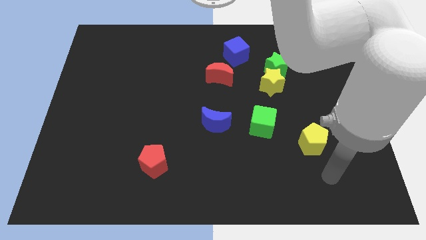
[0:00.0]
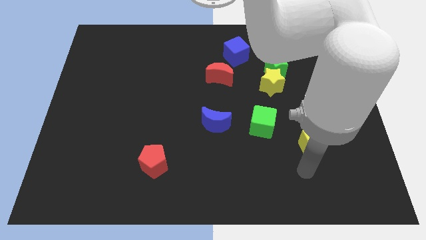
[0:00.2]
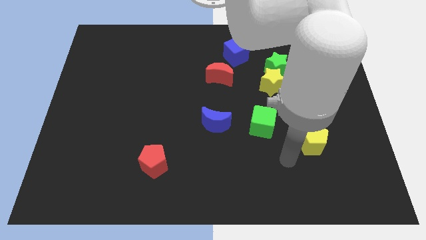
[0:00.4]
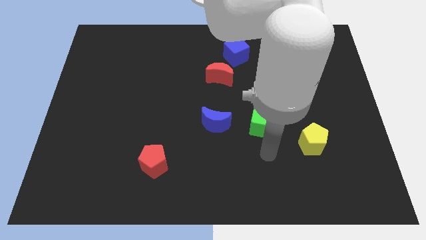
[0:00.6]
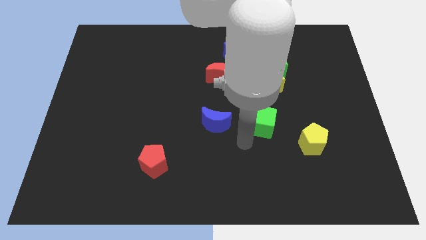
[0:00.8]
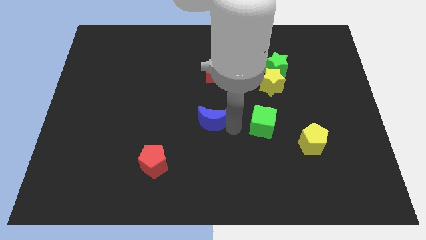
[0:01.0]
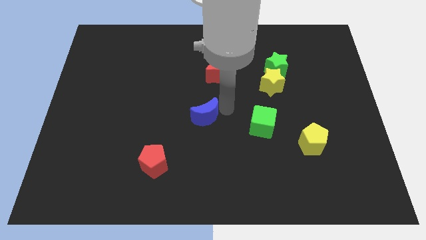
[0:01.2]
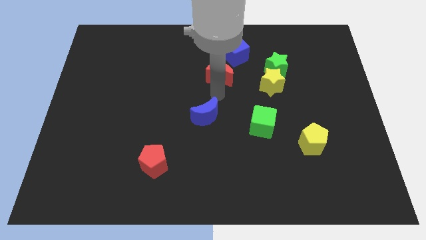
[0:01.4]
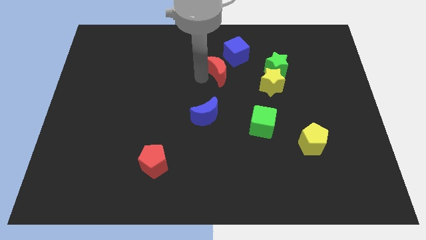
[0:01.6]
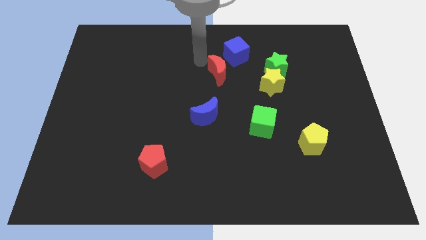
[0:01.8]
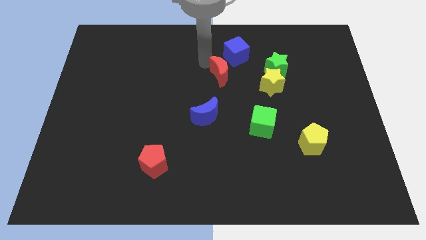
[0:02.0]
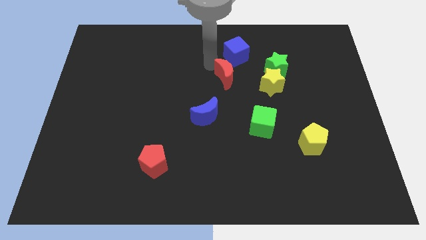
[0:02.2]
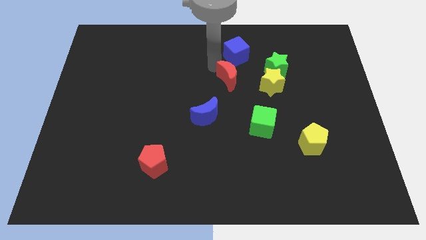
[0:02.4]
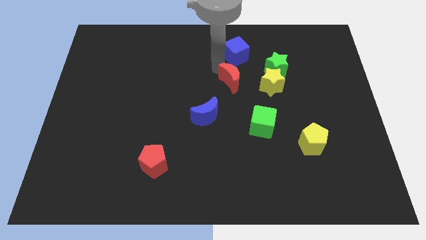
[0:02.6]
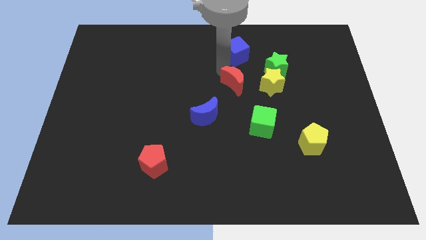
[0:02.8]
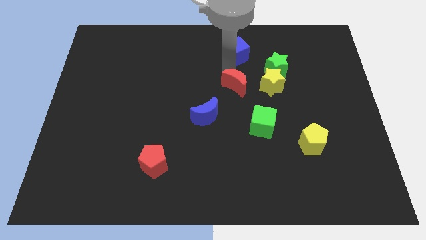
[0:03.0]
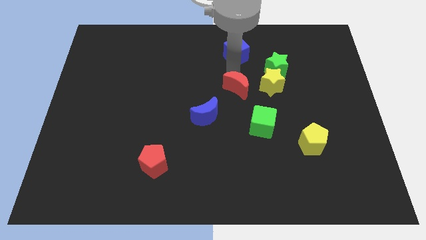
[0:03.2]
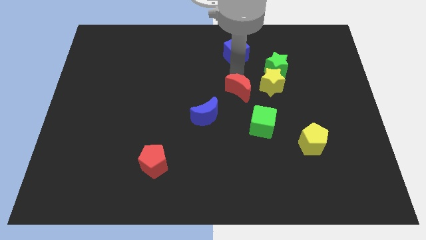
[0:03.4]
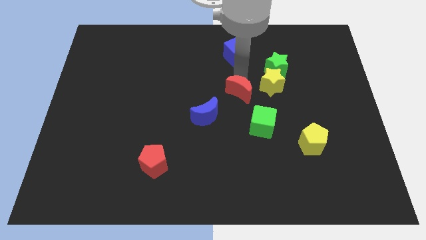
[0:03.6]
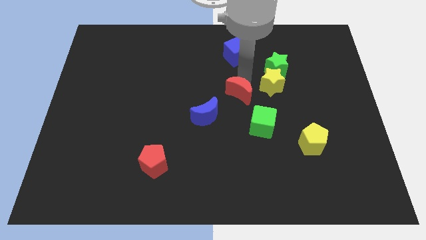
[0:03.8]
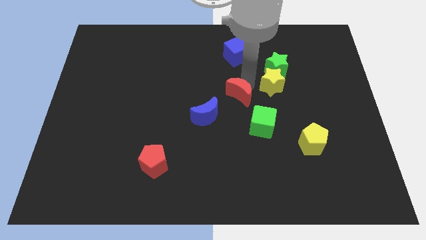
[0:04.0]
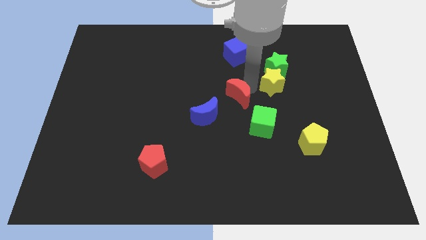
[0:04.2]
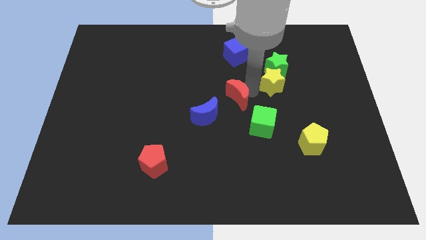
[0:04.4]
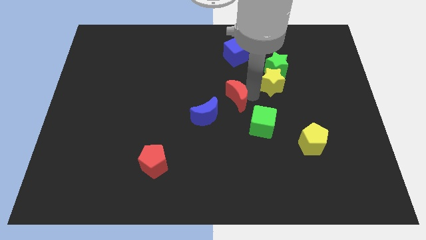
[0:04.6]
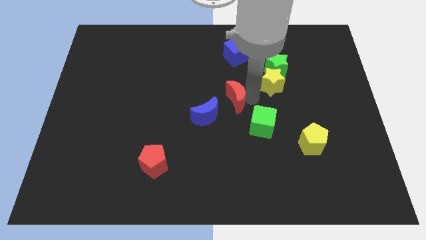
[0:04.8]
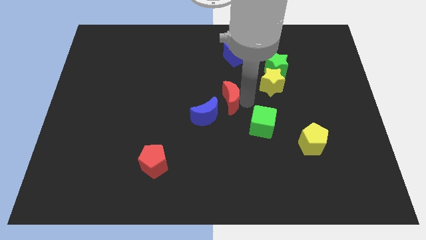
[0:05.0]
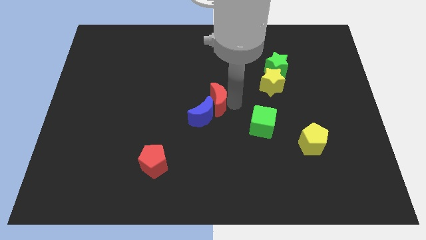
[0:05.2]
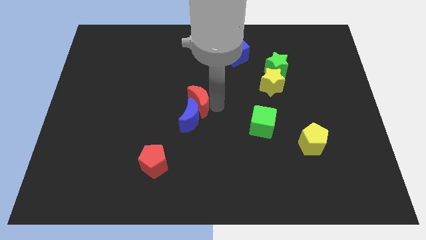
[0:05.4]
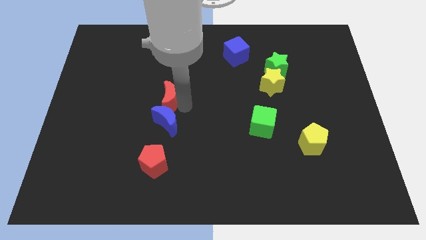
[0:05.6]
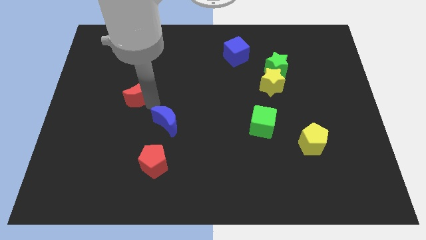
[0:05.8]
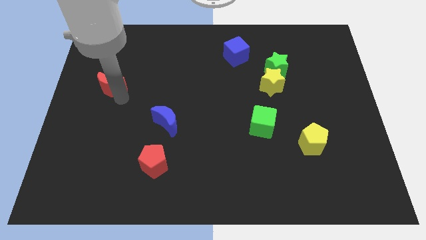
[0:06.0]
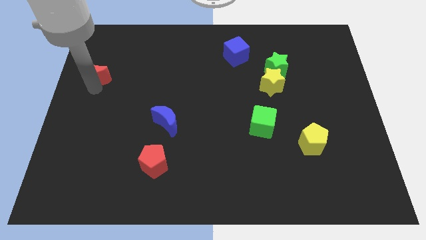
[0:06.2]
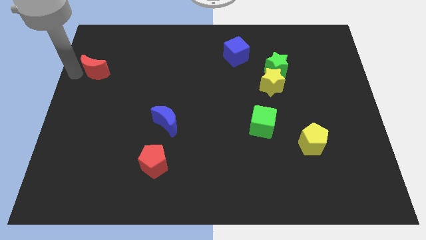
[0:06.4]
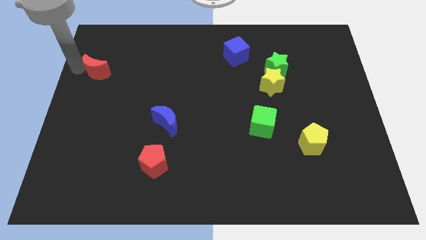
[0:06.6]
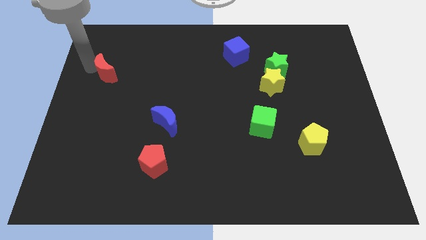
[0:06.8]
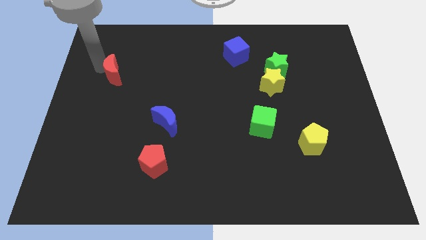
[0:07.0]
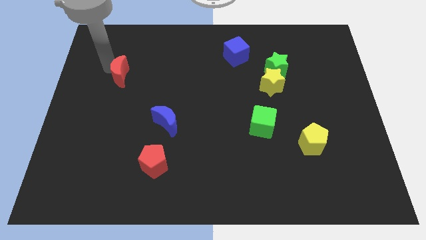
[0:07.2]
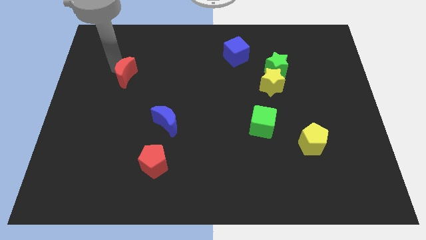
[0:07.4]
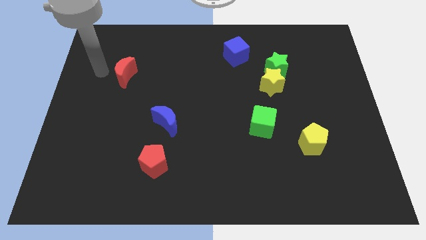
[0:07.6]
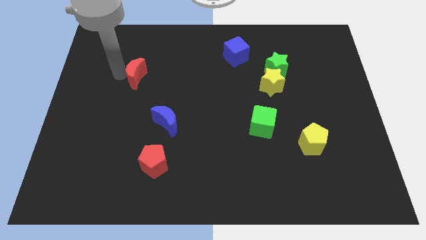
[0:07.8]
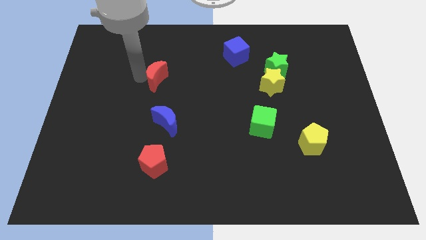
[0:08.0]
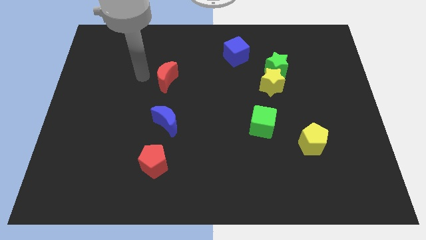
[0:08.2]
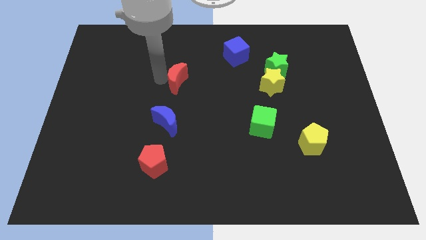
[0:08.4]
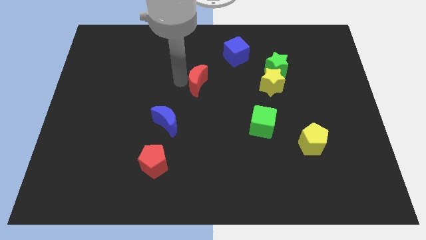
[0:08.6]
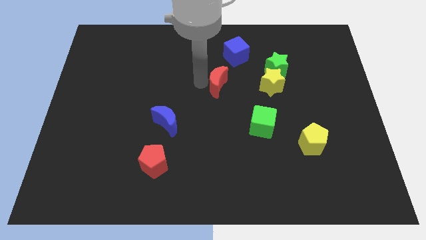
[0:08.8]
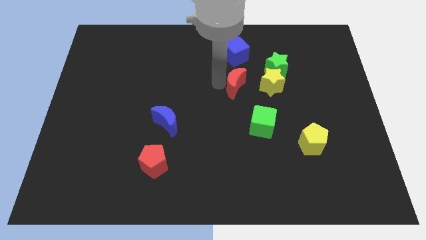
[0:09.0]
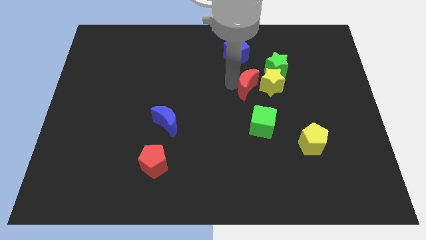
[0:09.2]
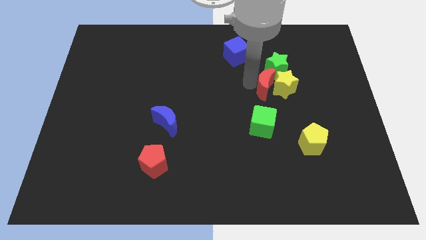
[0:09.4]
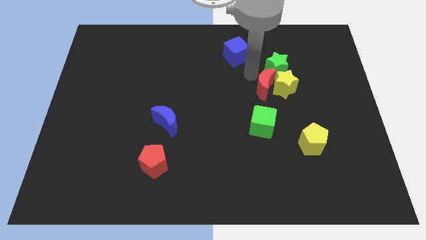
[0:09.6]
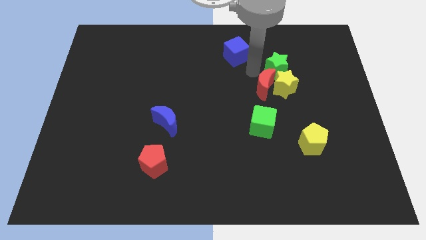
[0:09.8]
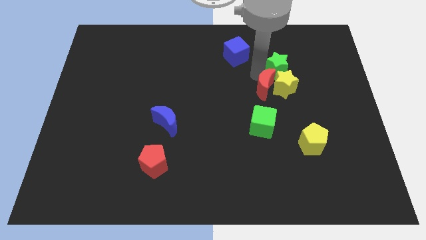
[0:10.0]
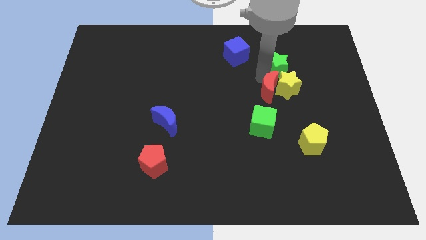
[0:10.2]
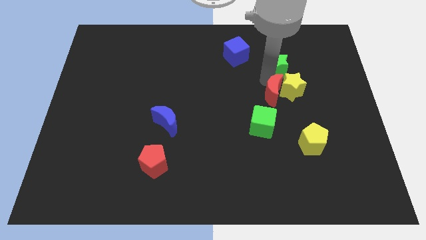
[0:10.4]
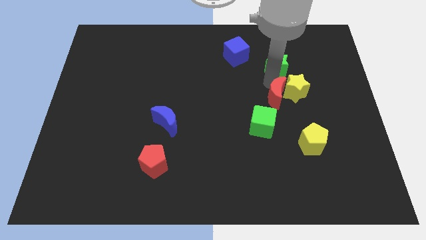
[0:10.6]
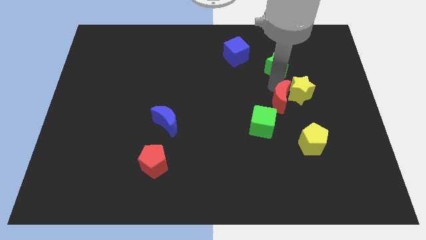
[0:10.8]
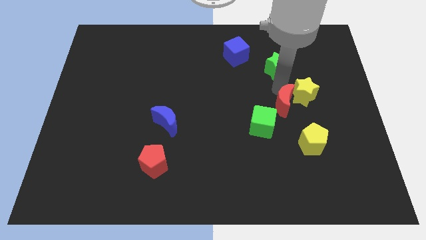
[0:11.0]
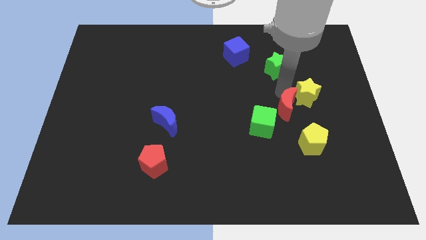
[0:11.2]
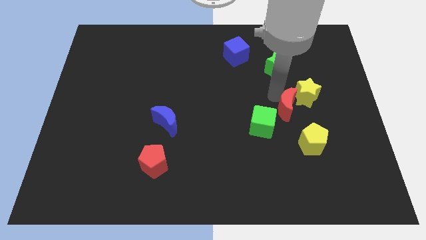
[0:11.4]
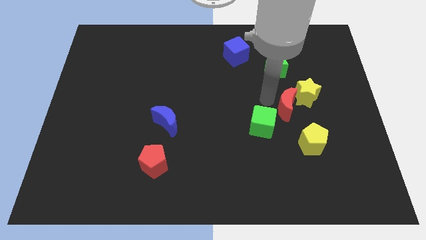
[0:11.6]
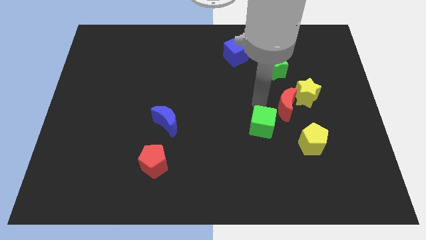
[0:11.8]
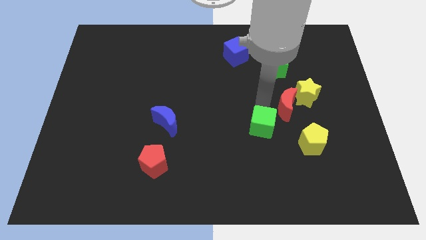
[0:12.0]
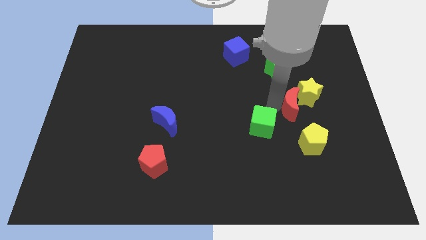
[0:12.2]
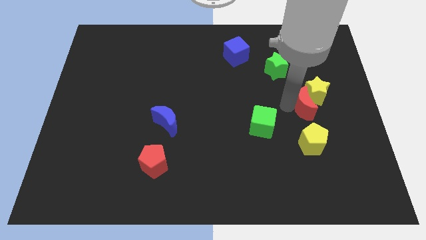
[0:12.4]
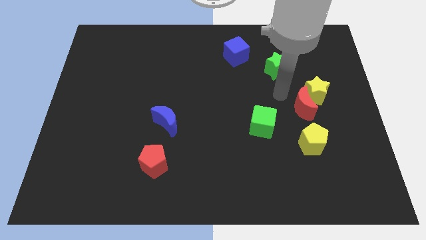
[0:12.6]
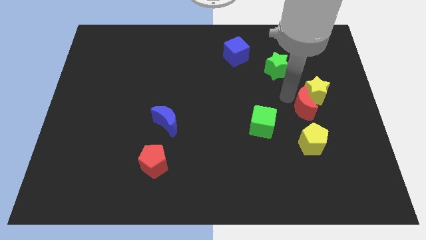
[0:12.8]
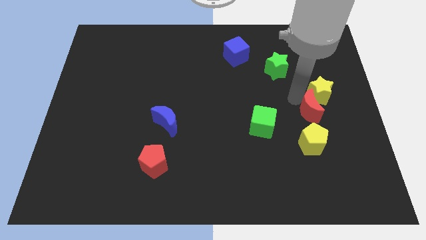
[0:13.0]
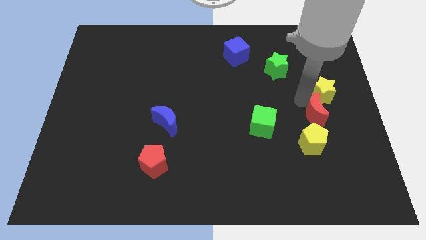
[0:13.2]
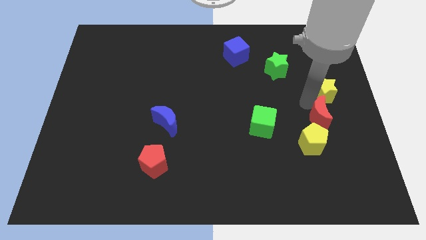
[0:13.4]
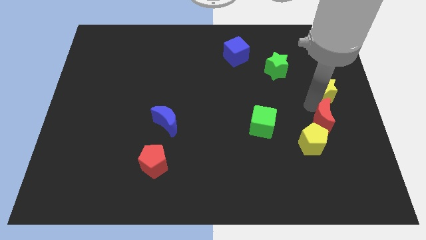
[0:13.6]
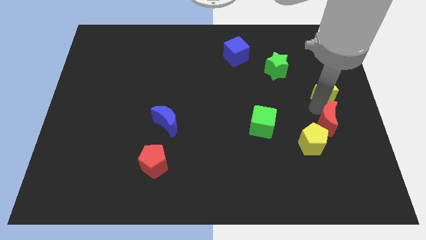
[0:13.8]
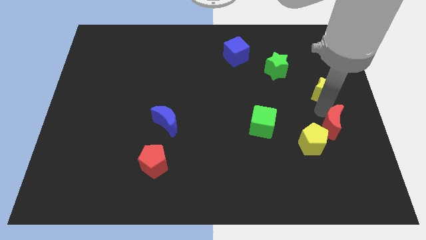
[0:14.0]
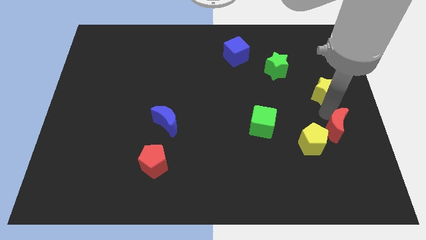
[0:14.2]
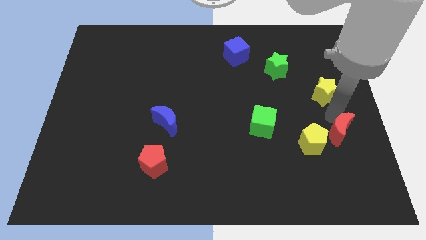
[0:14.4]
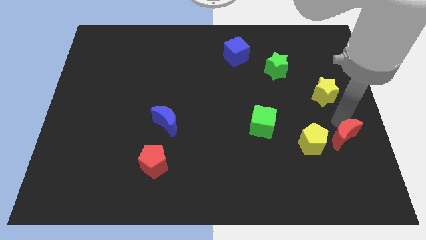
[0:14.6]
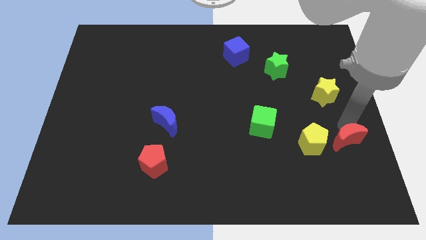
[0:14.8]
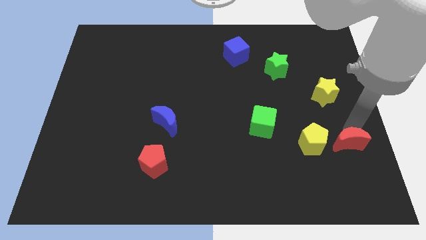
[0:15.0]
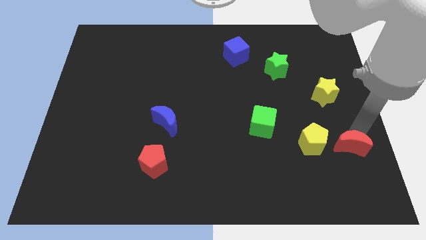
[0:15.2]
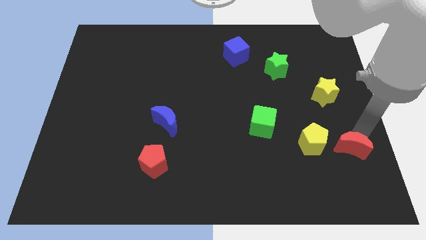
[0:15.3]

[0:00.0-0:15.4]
put the red moon to the bottom right side of the yellow pentagon
